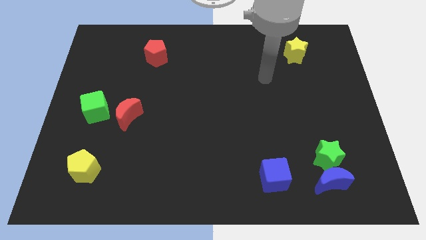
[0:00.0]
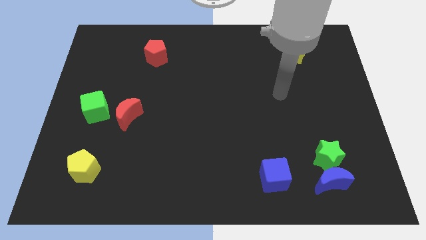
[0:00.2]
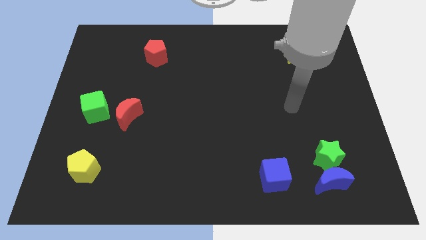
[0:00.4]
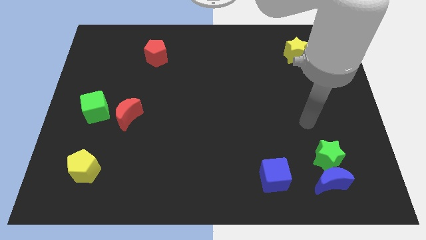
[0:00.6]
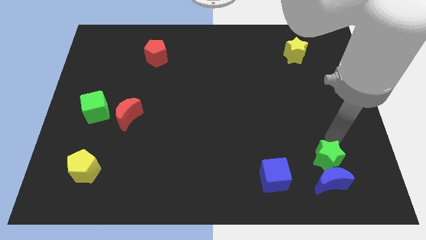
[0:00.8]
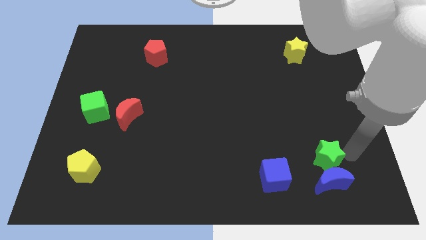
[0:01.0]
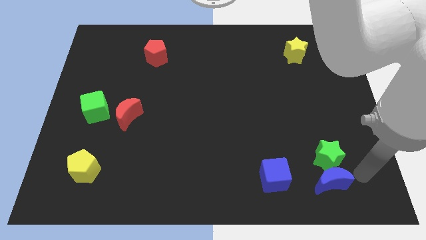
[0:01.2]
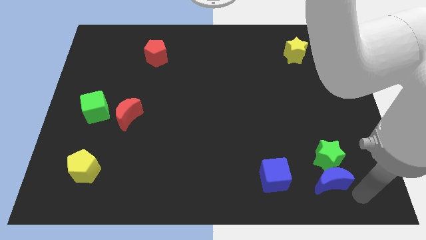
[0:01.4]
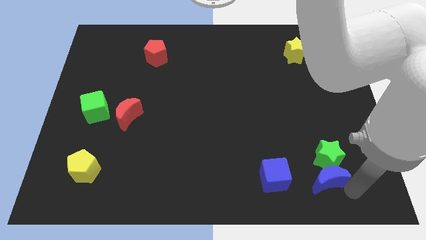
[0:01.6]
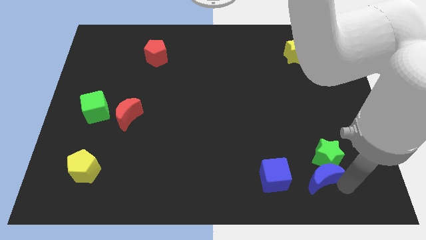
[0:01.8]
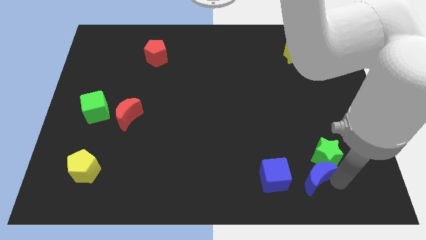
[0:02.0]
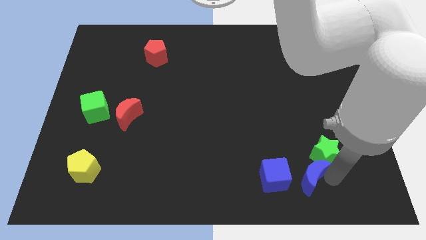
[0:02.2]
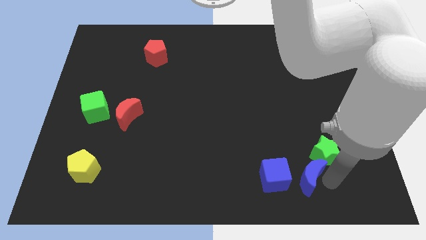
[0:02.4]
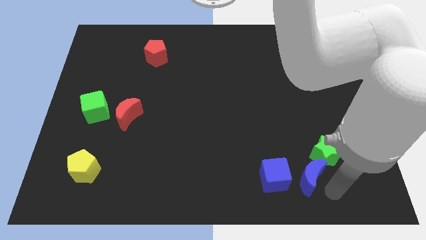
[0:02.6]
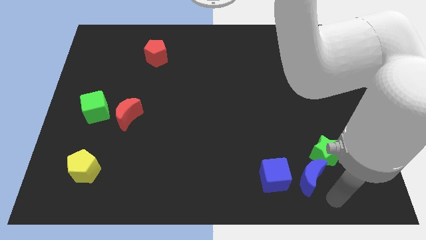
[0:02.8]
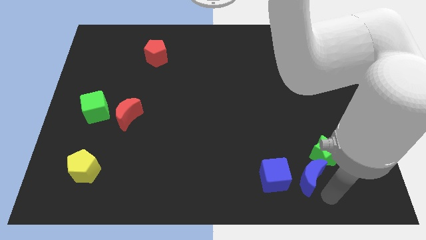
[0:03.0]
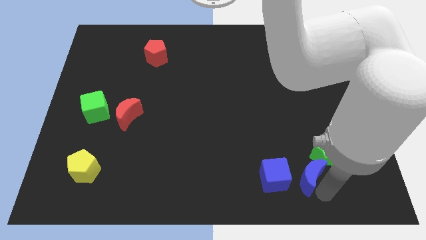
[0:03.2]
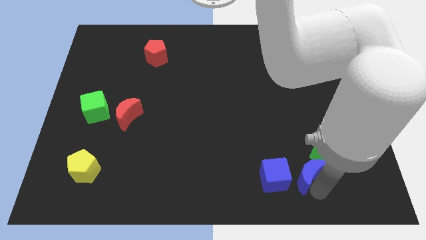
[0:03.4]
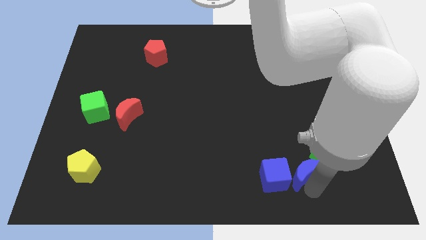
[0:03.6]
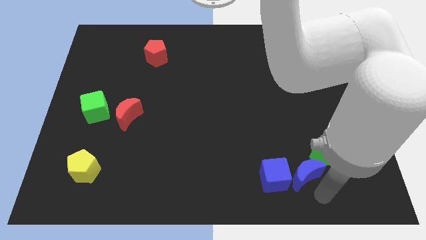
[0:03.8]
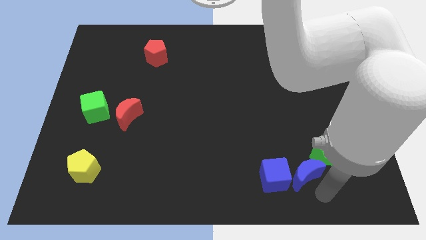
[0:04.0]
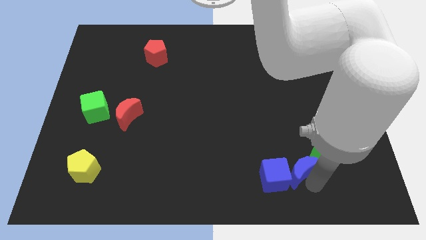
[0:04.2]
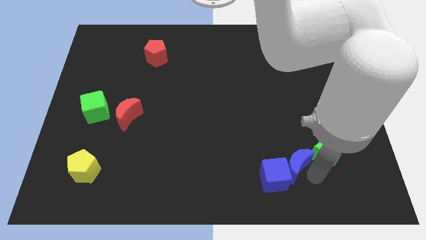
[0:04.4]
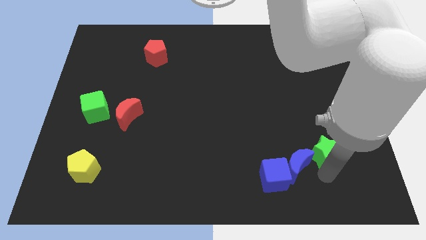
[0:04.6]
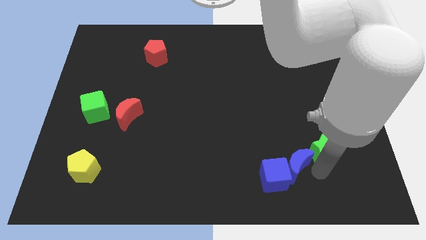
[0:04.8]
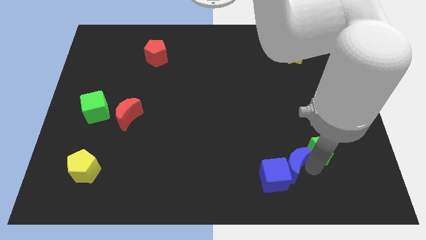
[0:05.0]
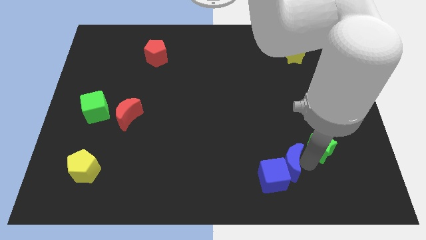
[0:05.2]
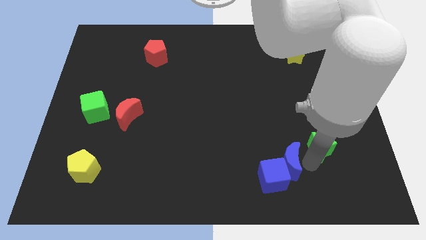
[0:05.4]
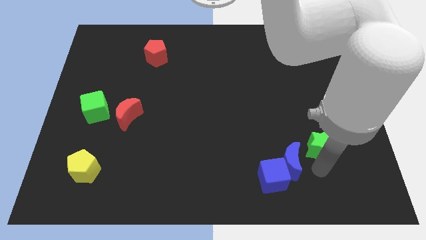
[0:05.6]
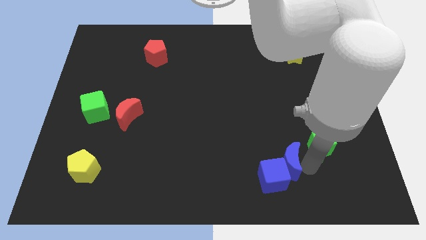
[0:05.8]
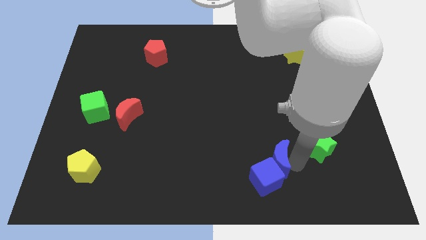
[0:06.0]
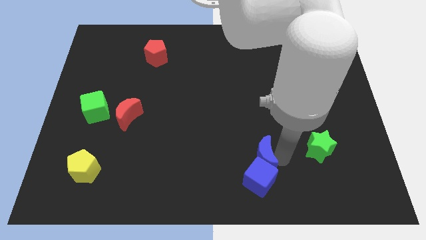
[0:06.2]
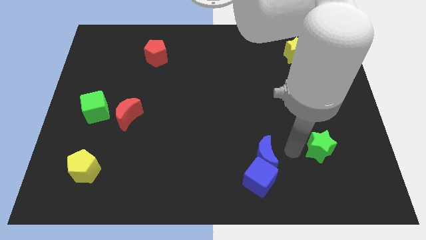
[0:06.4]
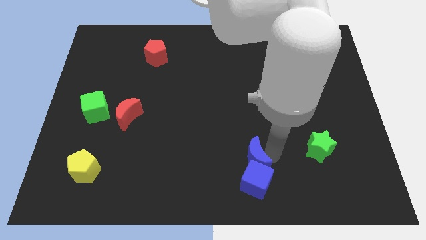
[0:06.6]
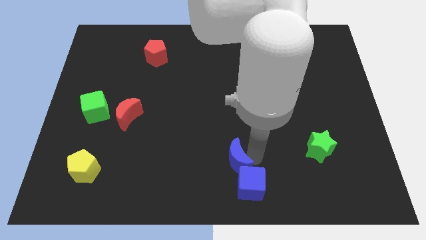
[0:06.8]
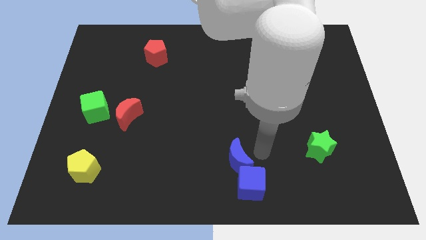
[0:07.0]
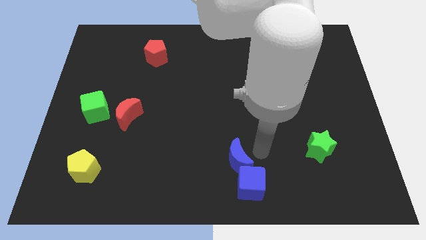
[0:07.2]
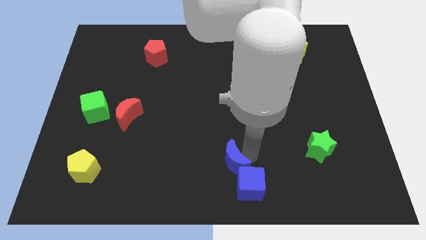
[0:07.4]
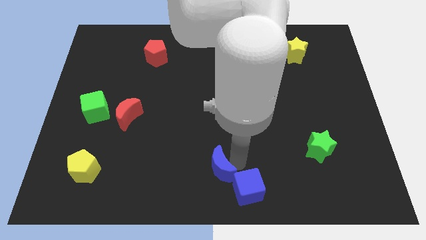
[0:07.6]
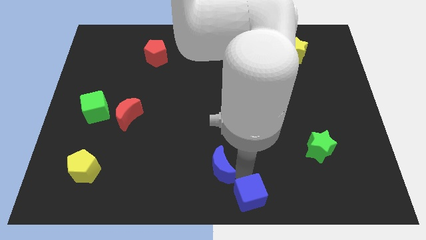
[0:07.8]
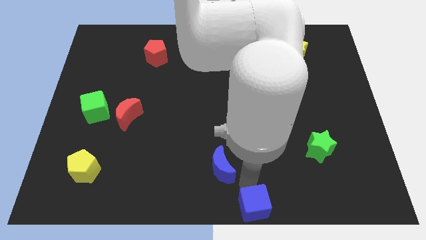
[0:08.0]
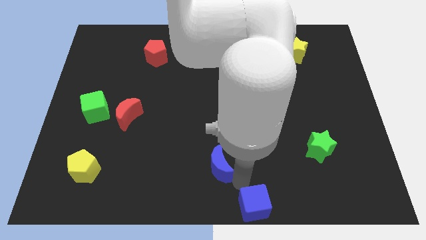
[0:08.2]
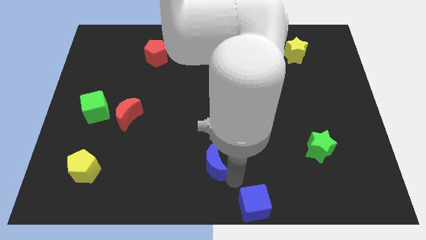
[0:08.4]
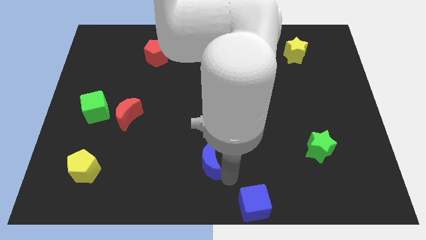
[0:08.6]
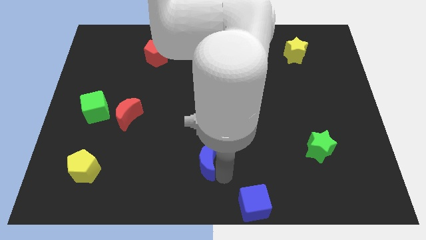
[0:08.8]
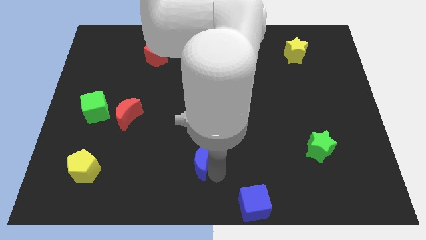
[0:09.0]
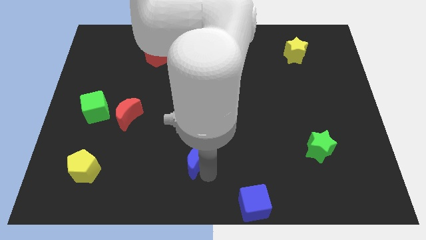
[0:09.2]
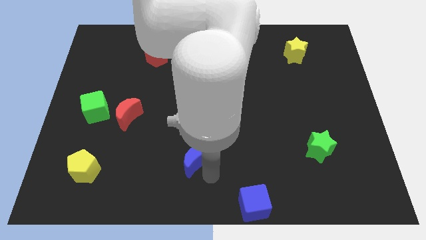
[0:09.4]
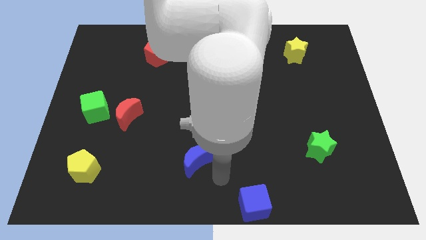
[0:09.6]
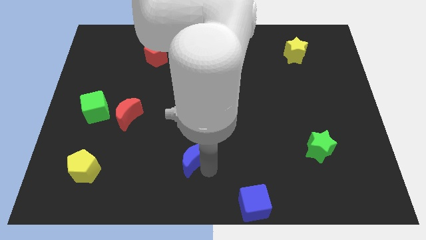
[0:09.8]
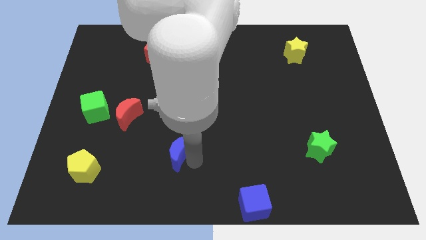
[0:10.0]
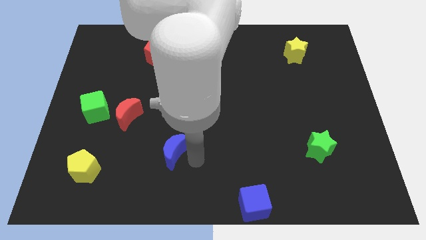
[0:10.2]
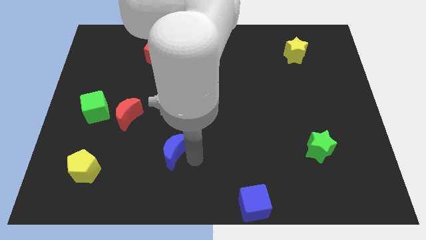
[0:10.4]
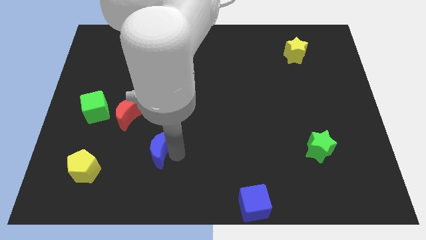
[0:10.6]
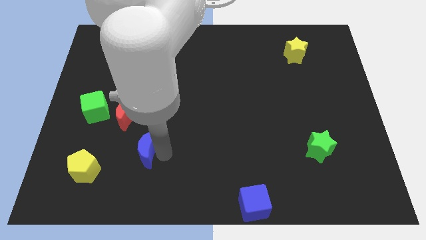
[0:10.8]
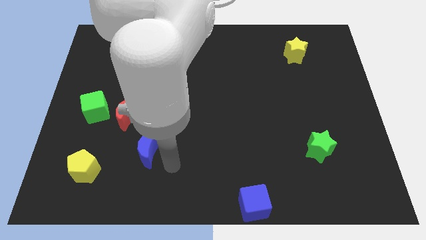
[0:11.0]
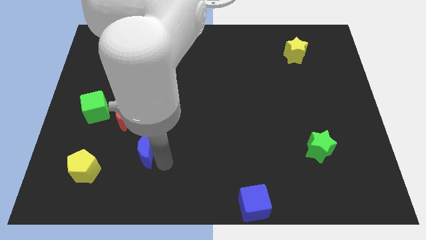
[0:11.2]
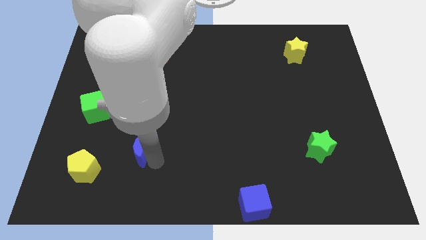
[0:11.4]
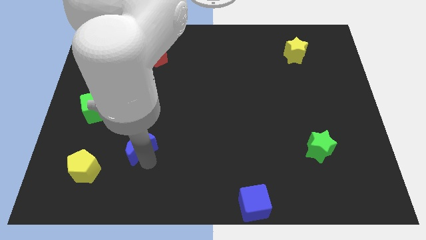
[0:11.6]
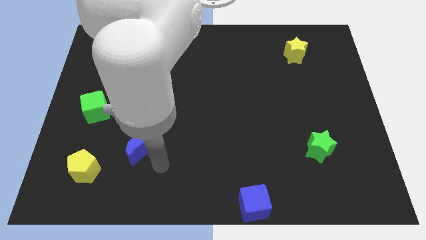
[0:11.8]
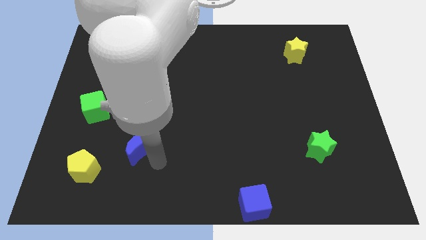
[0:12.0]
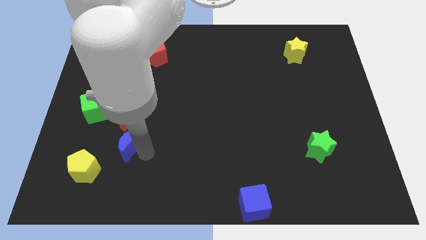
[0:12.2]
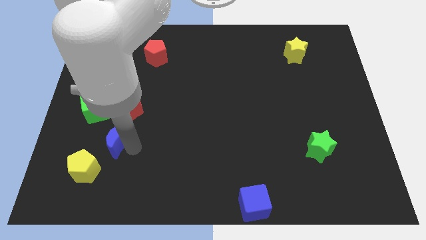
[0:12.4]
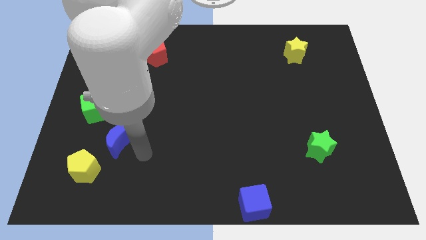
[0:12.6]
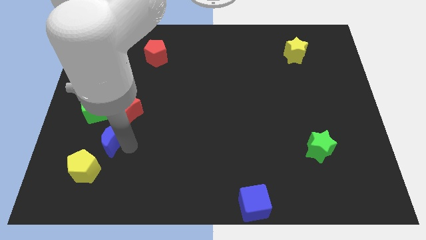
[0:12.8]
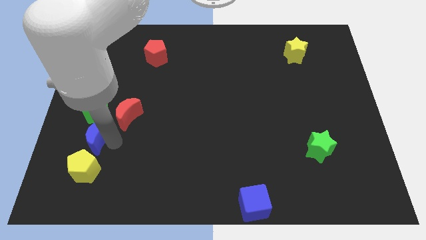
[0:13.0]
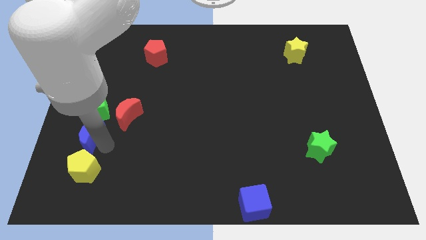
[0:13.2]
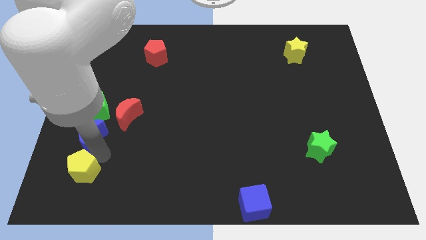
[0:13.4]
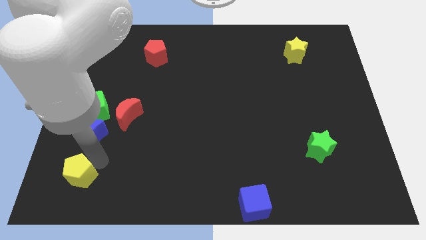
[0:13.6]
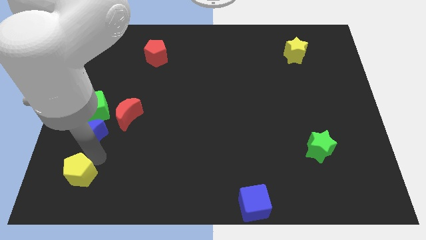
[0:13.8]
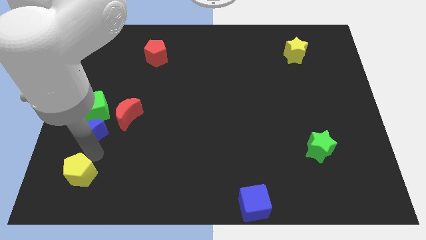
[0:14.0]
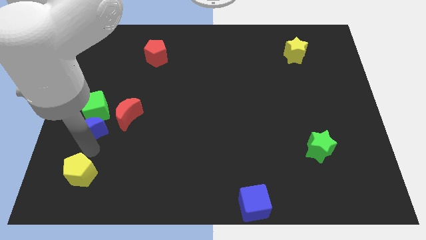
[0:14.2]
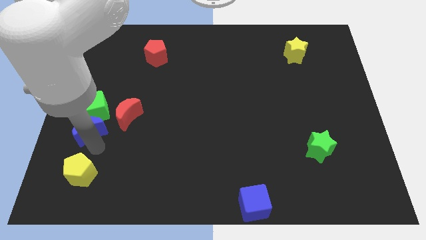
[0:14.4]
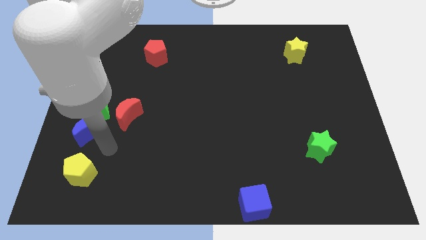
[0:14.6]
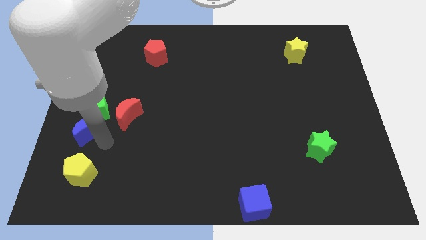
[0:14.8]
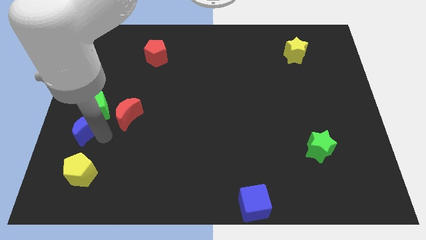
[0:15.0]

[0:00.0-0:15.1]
push the blue moon to the left side
